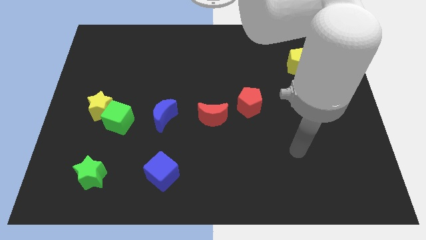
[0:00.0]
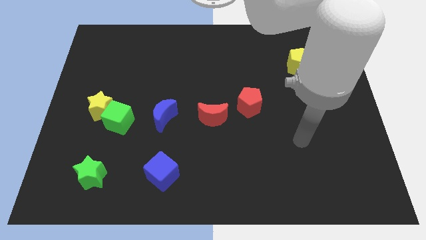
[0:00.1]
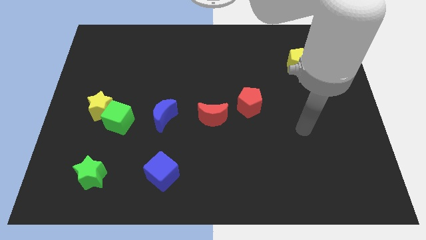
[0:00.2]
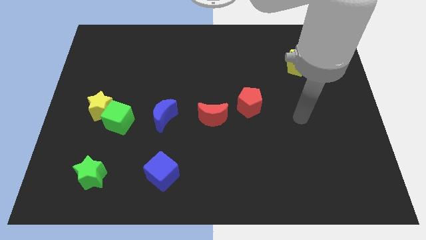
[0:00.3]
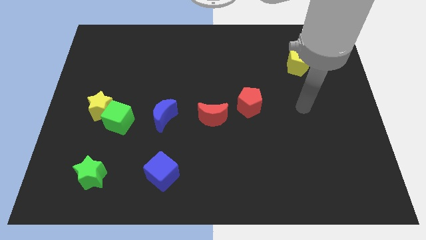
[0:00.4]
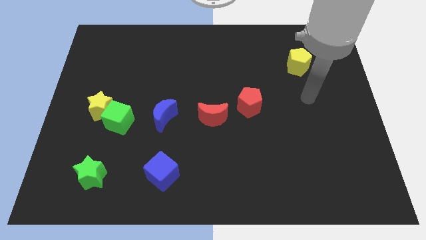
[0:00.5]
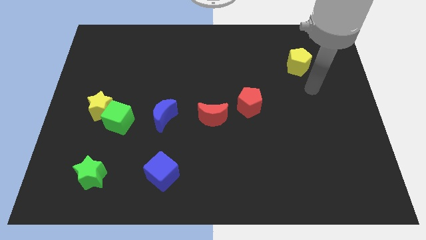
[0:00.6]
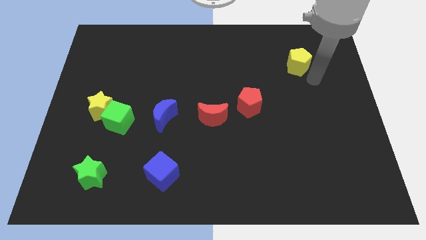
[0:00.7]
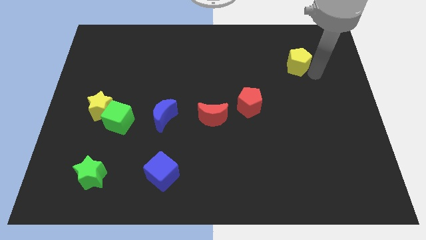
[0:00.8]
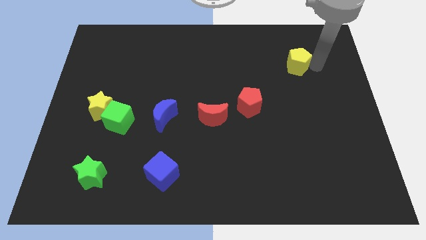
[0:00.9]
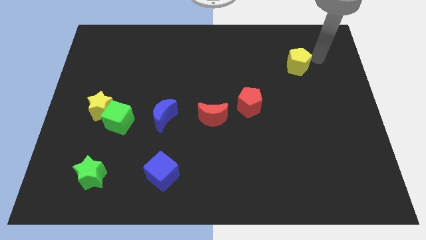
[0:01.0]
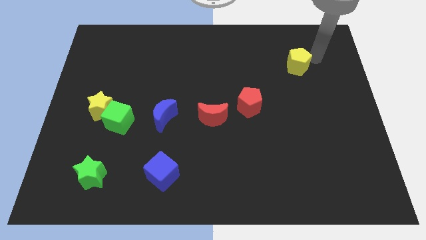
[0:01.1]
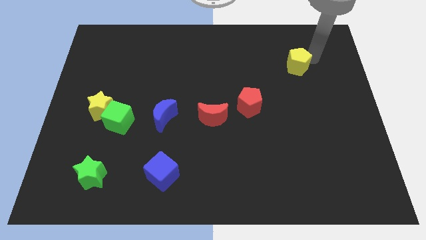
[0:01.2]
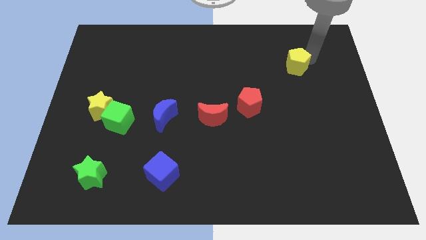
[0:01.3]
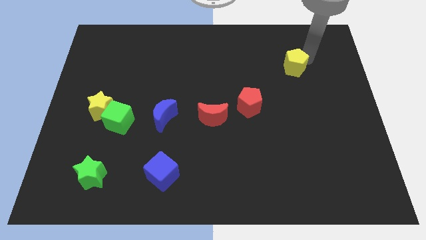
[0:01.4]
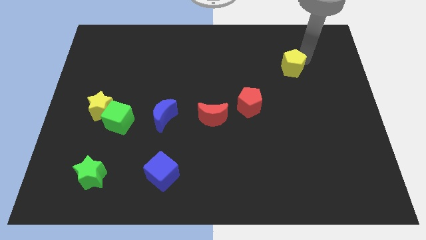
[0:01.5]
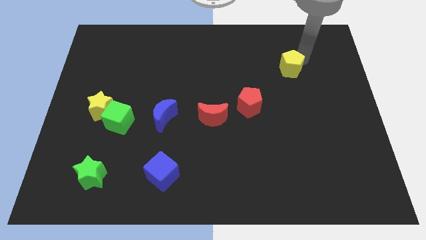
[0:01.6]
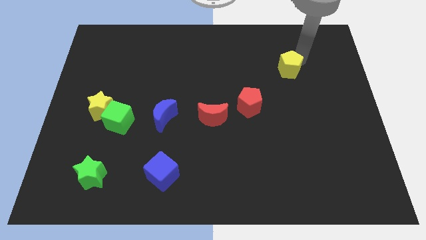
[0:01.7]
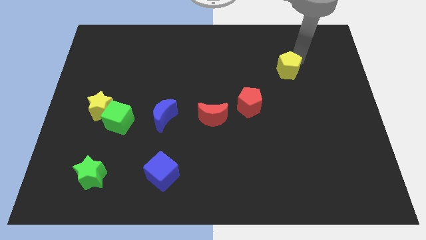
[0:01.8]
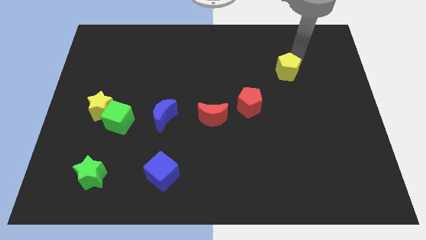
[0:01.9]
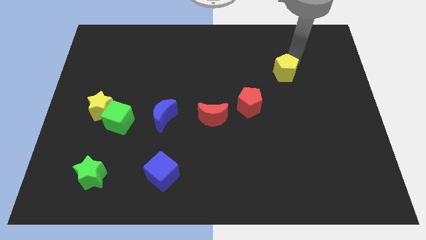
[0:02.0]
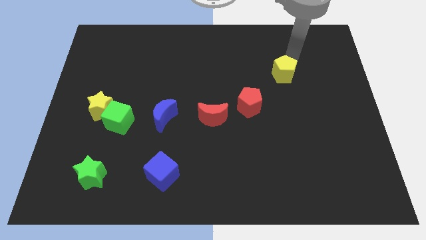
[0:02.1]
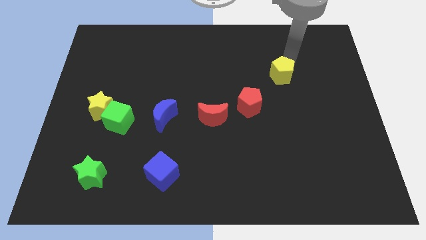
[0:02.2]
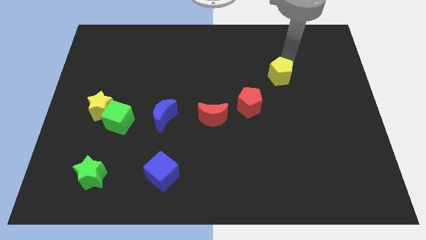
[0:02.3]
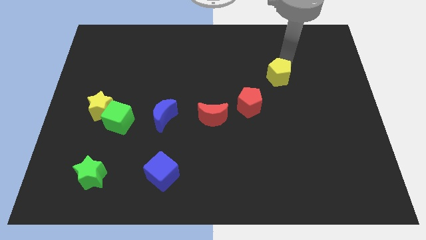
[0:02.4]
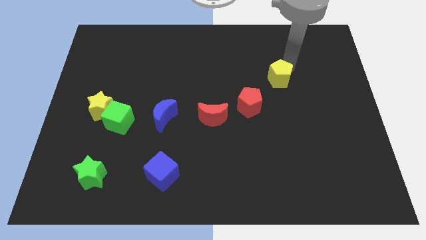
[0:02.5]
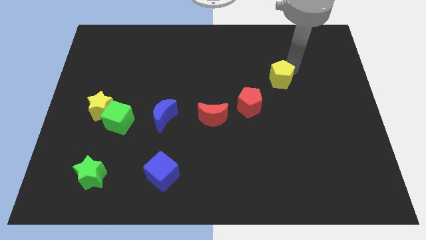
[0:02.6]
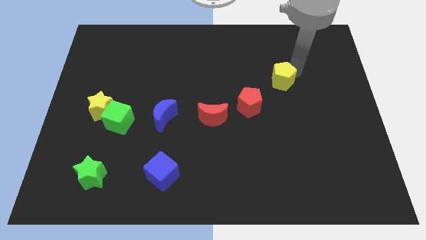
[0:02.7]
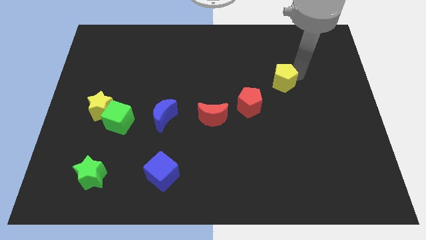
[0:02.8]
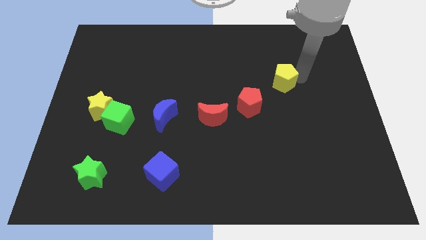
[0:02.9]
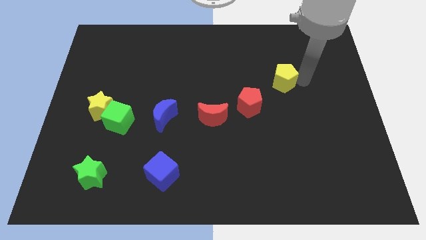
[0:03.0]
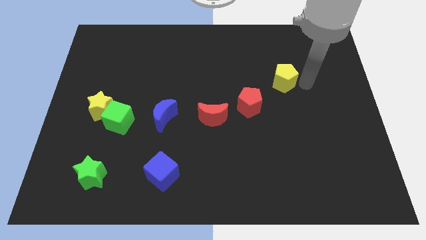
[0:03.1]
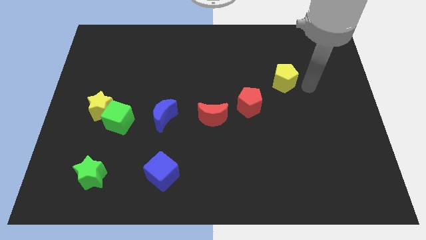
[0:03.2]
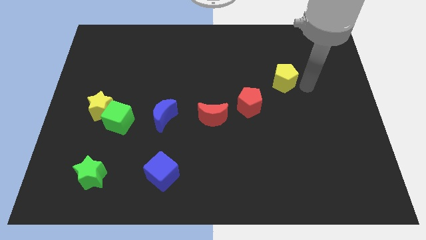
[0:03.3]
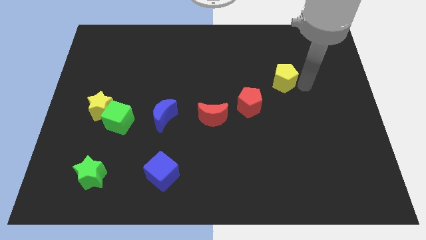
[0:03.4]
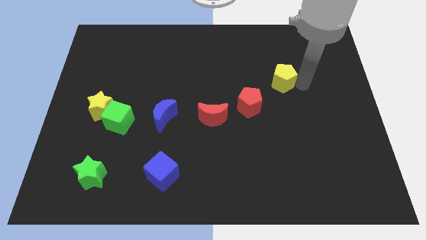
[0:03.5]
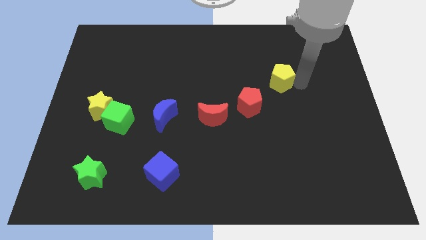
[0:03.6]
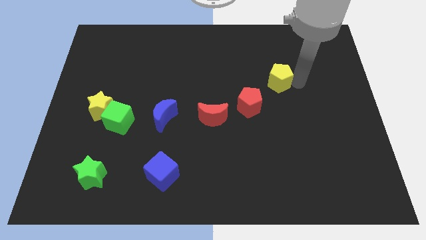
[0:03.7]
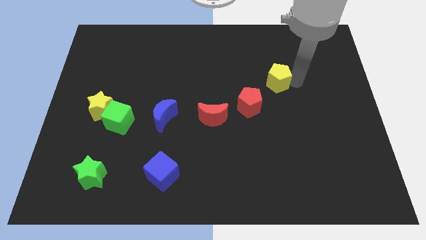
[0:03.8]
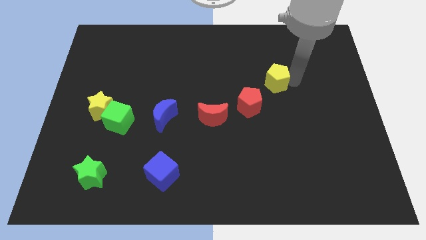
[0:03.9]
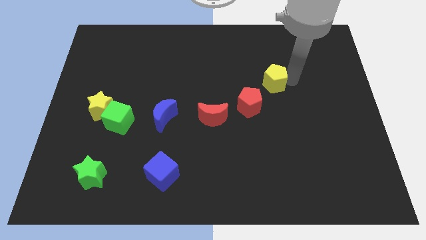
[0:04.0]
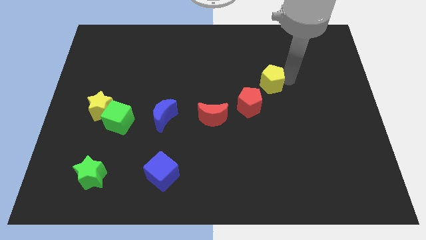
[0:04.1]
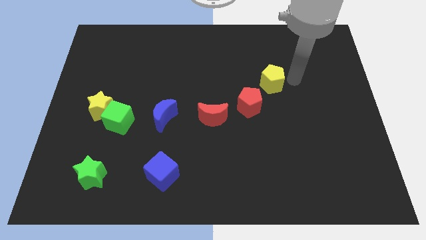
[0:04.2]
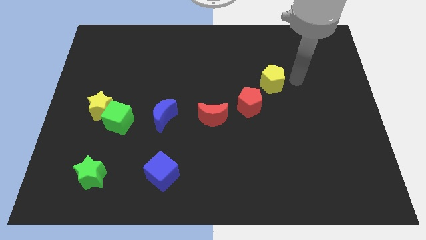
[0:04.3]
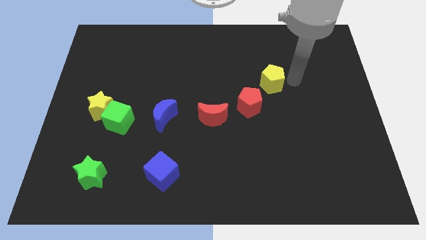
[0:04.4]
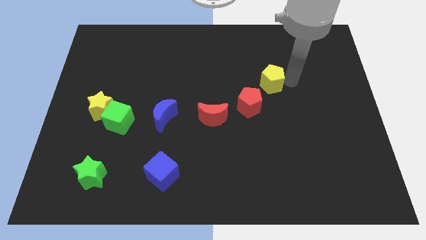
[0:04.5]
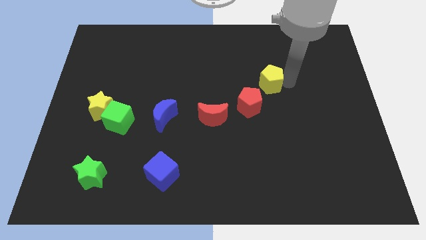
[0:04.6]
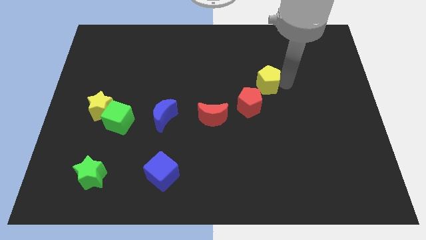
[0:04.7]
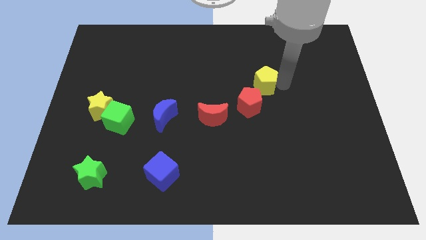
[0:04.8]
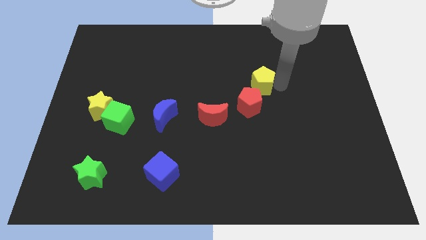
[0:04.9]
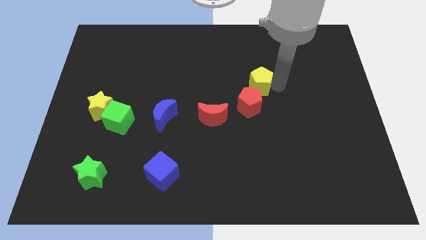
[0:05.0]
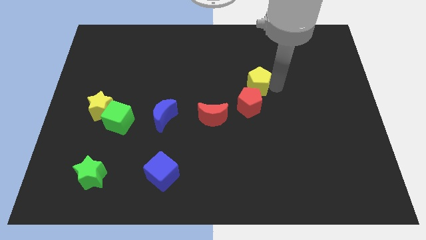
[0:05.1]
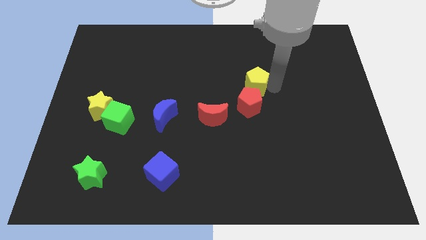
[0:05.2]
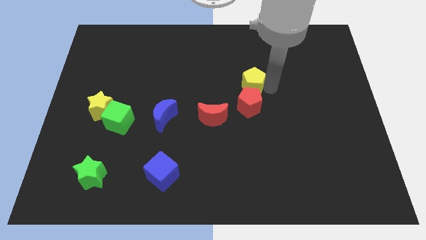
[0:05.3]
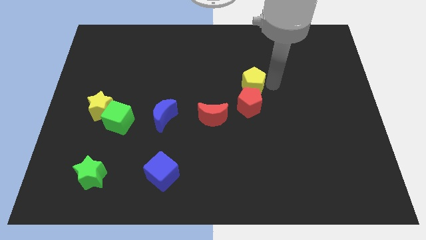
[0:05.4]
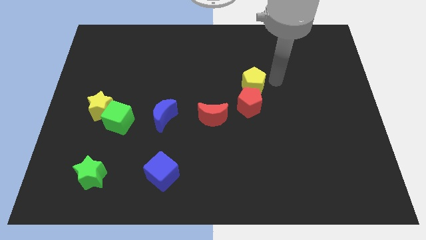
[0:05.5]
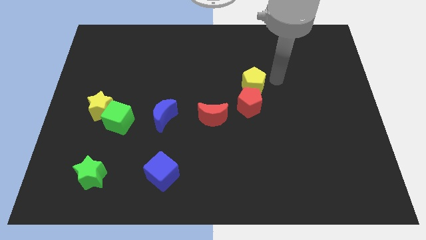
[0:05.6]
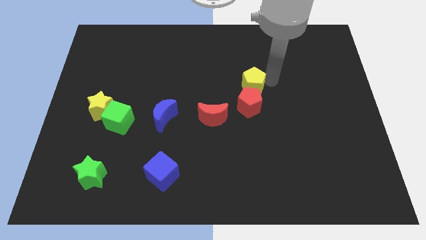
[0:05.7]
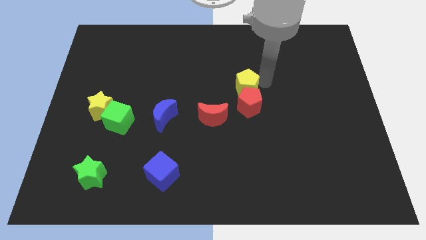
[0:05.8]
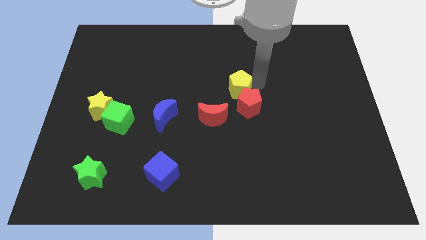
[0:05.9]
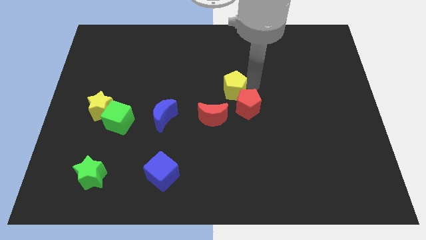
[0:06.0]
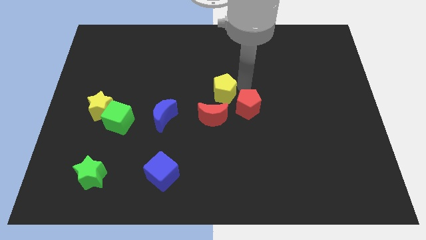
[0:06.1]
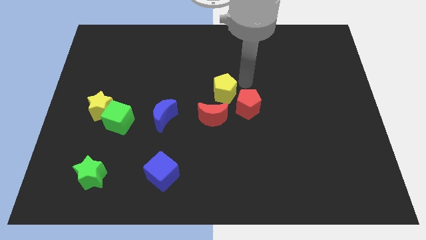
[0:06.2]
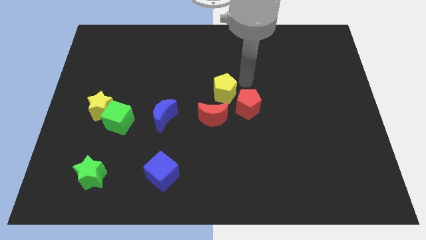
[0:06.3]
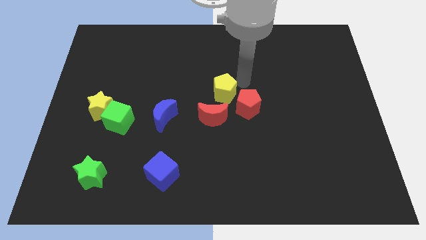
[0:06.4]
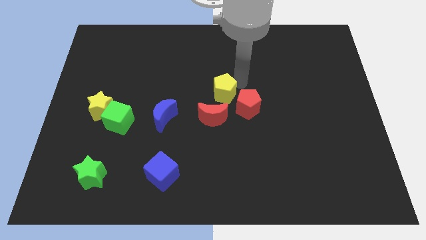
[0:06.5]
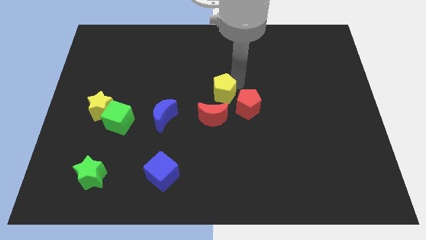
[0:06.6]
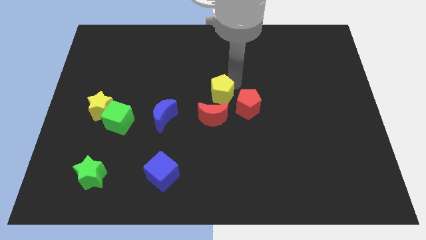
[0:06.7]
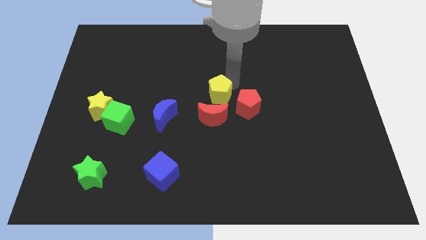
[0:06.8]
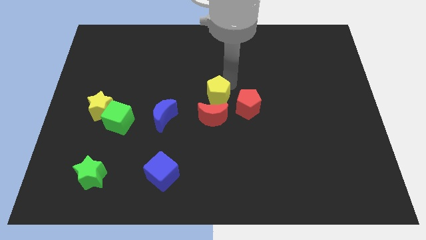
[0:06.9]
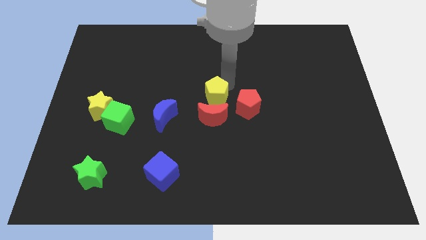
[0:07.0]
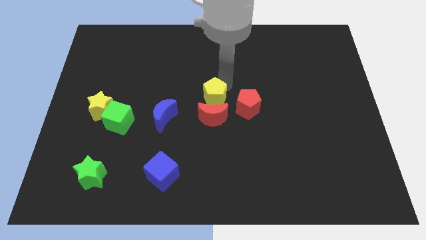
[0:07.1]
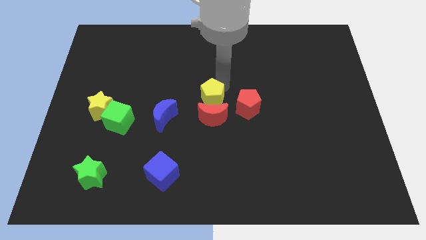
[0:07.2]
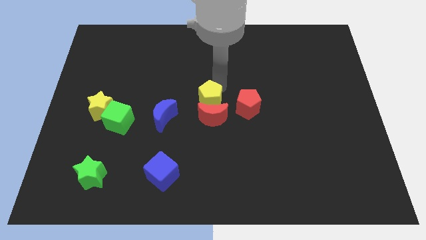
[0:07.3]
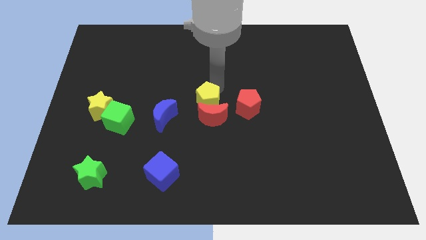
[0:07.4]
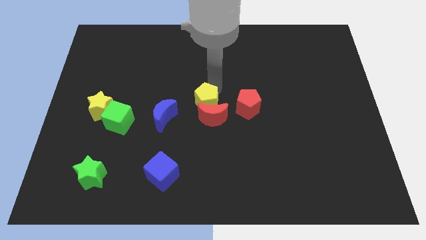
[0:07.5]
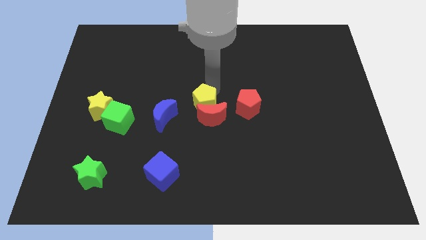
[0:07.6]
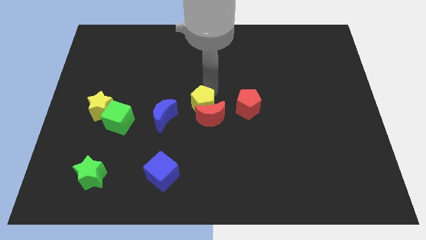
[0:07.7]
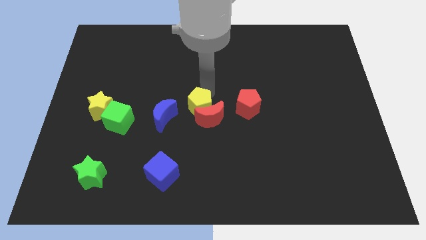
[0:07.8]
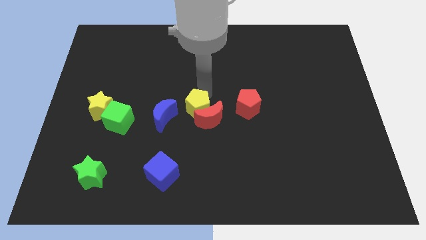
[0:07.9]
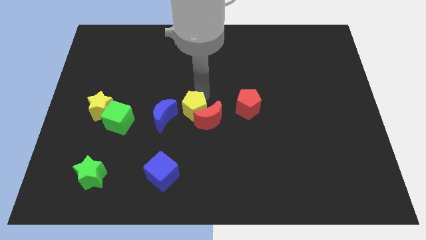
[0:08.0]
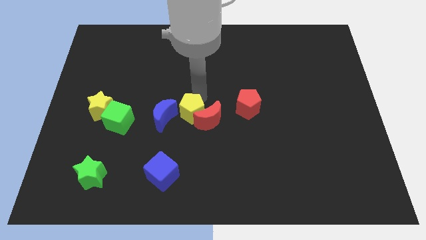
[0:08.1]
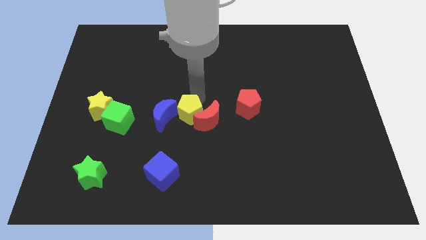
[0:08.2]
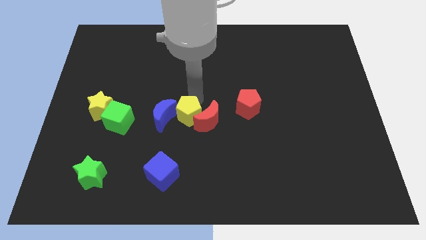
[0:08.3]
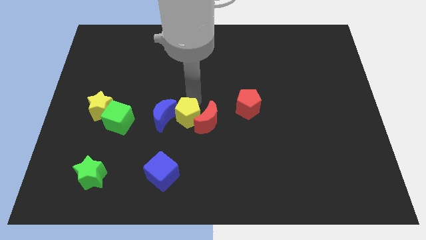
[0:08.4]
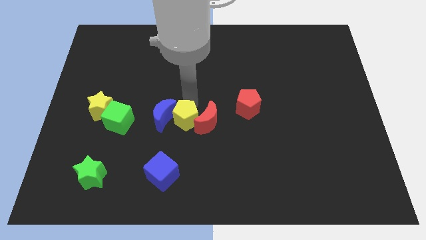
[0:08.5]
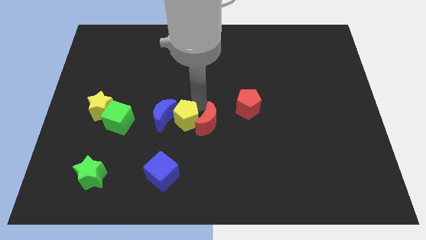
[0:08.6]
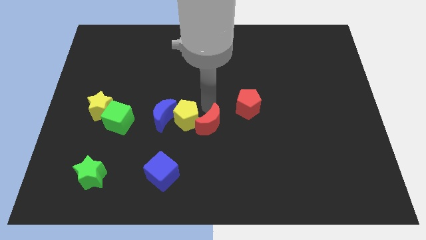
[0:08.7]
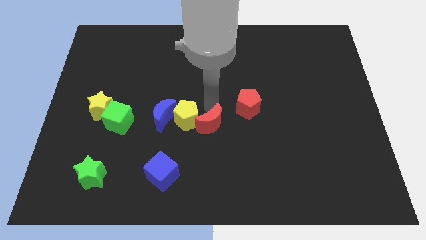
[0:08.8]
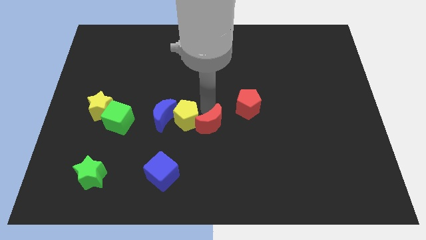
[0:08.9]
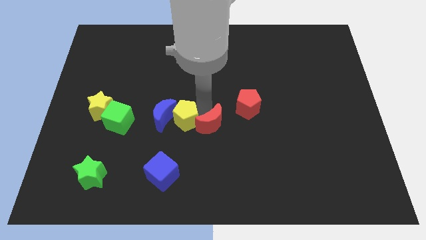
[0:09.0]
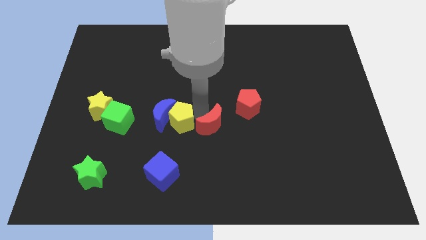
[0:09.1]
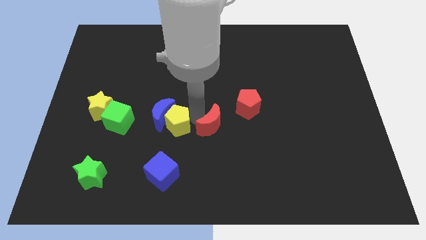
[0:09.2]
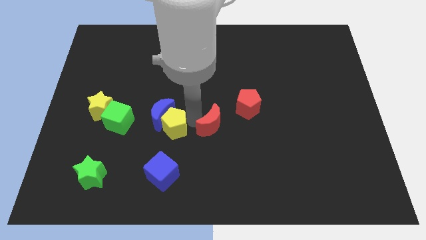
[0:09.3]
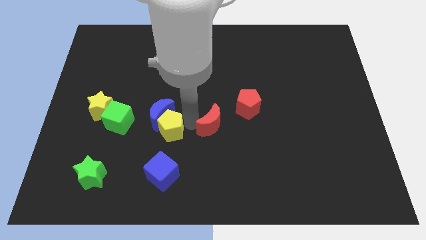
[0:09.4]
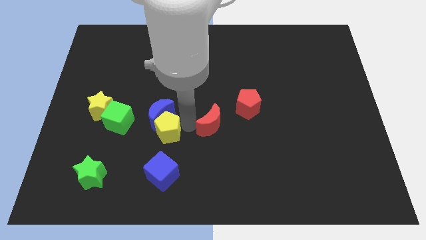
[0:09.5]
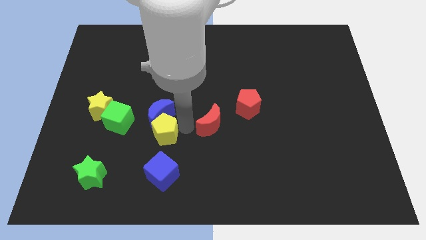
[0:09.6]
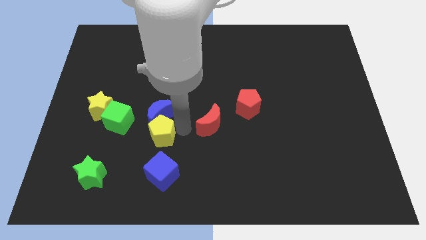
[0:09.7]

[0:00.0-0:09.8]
put the yellow pentagon diagonally down and to the right of the green cube
